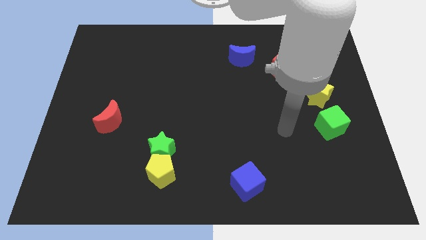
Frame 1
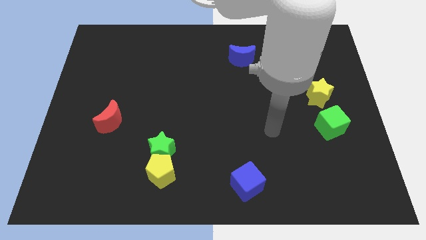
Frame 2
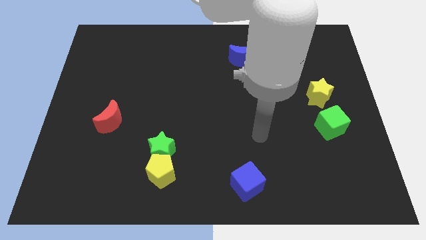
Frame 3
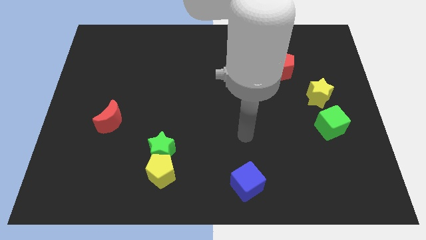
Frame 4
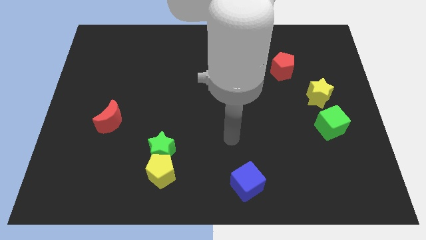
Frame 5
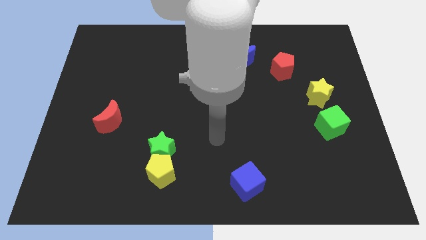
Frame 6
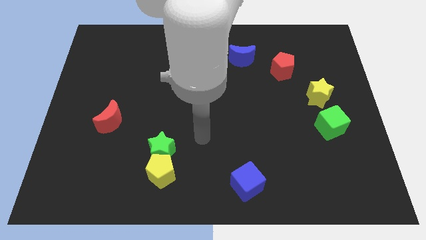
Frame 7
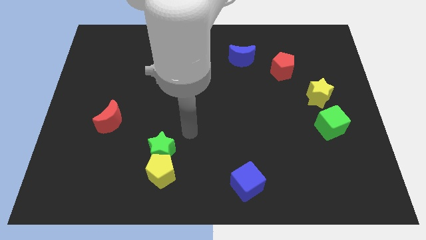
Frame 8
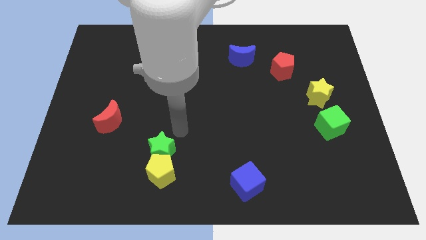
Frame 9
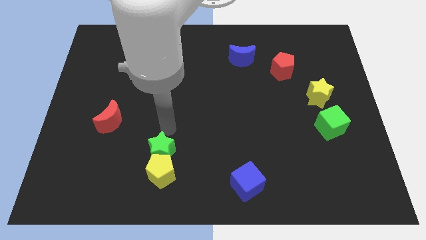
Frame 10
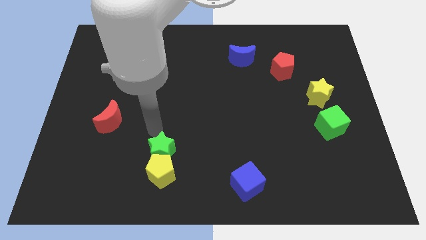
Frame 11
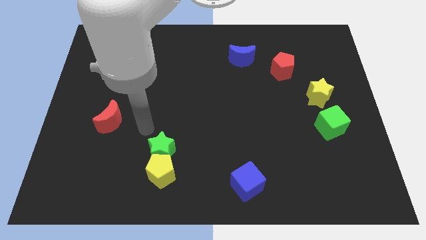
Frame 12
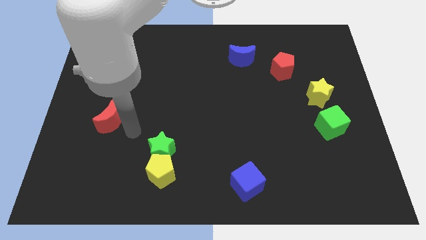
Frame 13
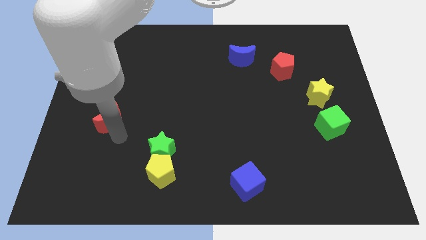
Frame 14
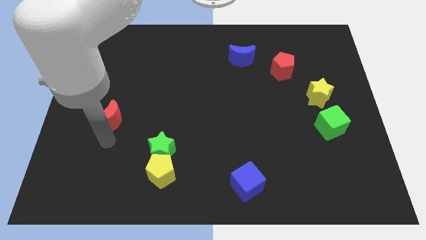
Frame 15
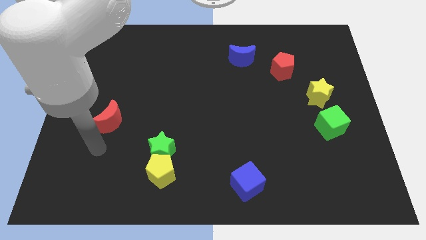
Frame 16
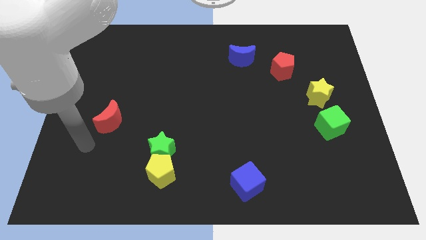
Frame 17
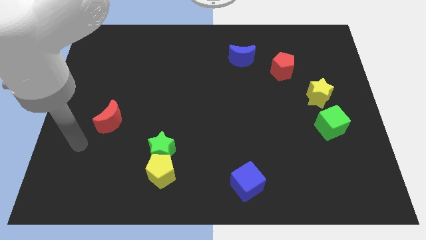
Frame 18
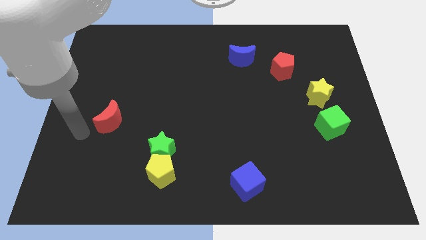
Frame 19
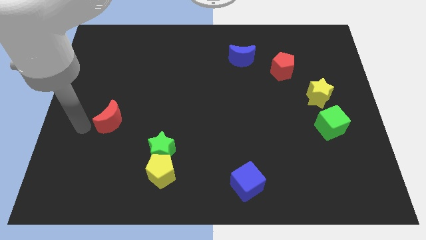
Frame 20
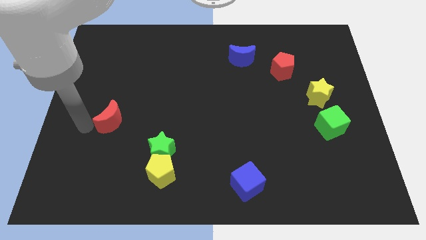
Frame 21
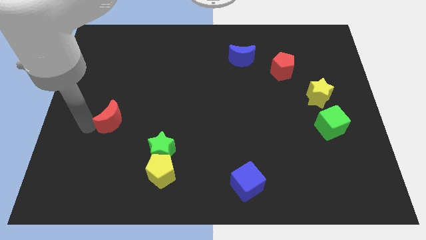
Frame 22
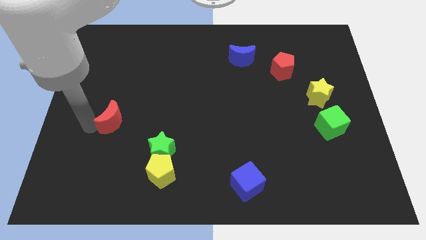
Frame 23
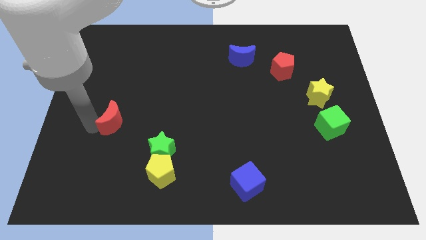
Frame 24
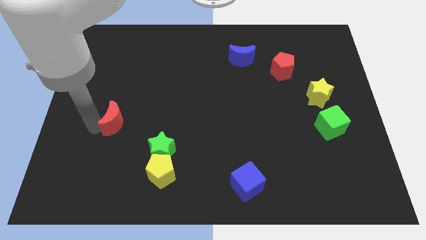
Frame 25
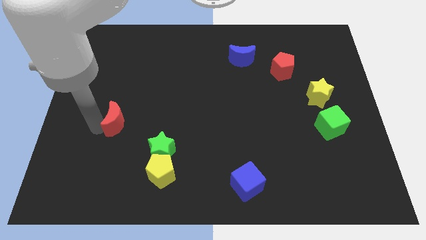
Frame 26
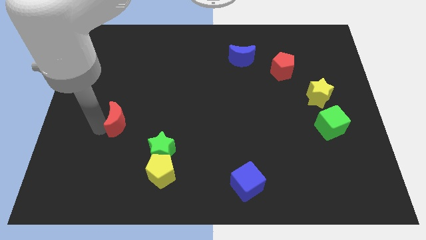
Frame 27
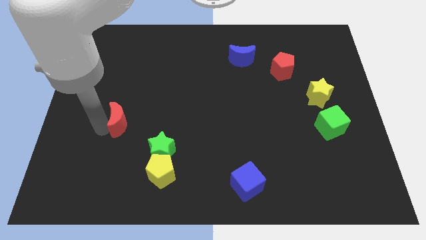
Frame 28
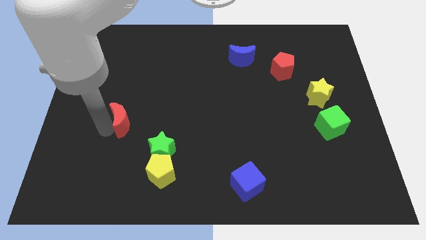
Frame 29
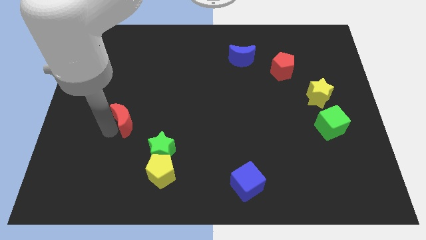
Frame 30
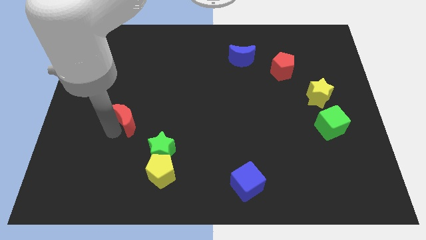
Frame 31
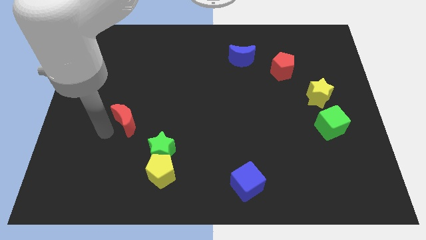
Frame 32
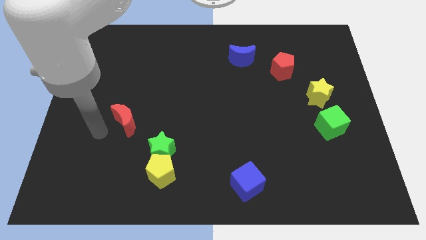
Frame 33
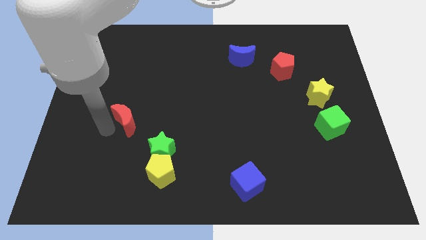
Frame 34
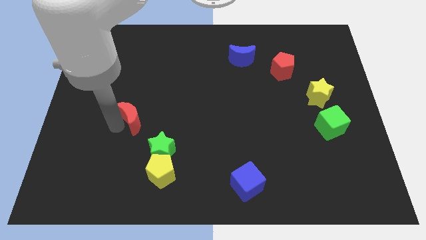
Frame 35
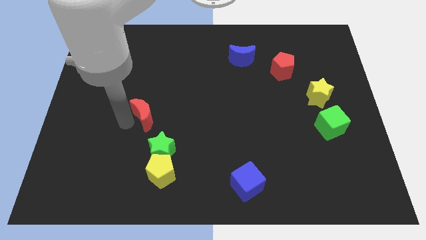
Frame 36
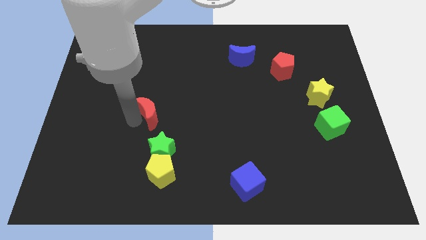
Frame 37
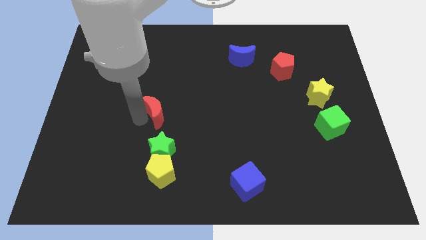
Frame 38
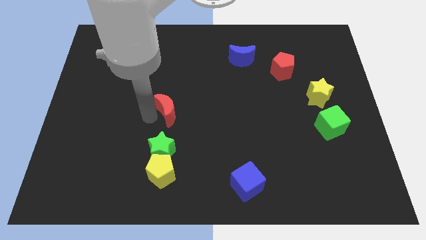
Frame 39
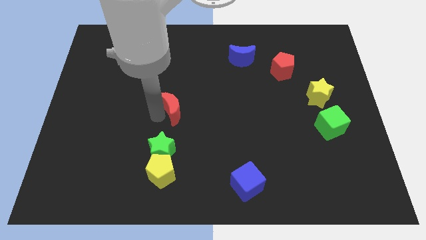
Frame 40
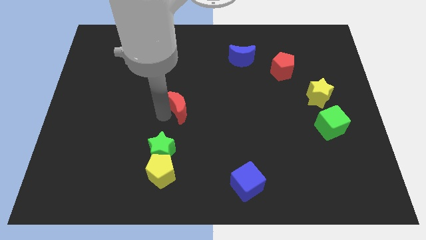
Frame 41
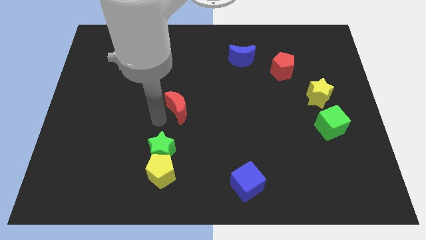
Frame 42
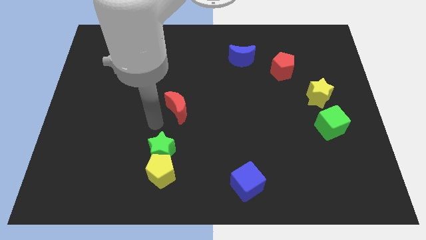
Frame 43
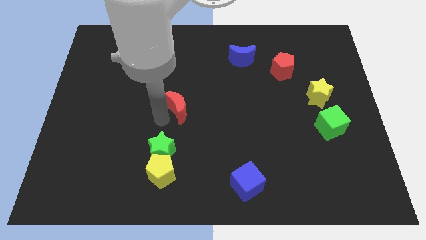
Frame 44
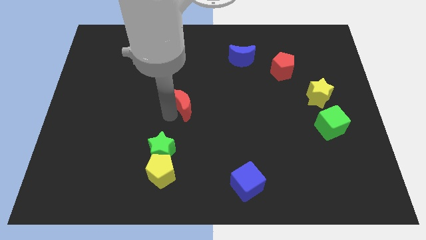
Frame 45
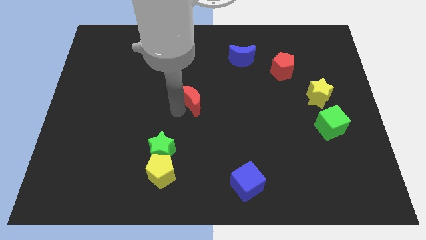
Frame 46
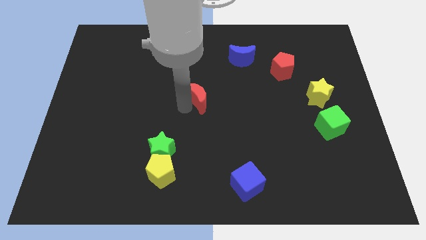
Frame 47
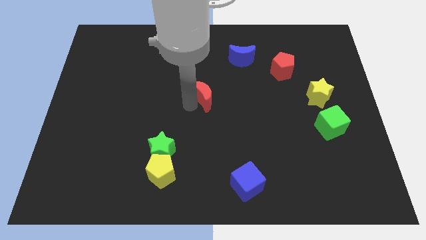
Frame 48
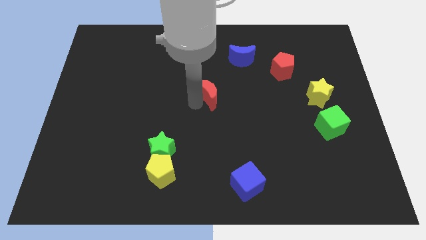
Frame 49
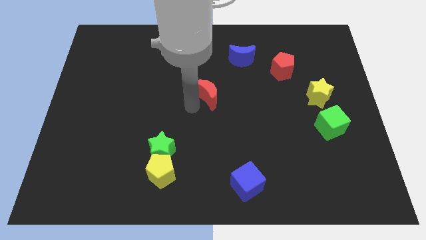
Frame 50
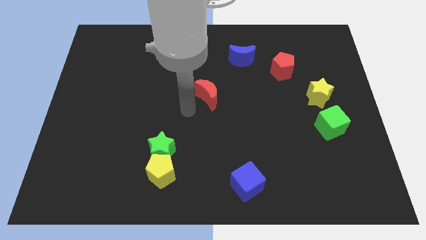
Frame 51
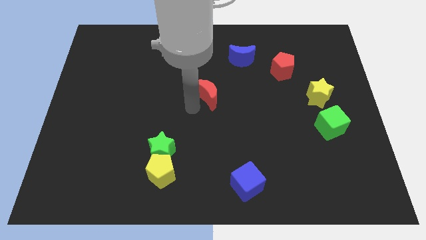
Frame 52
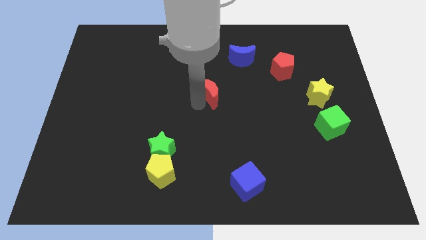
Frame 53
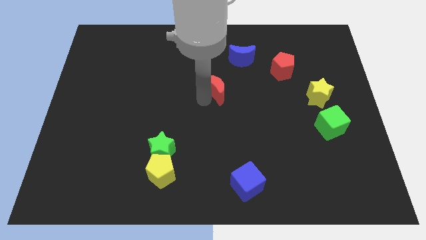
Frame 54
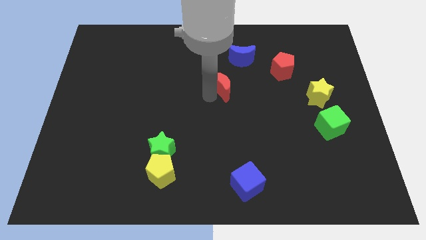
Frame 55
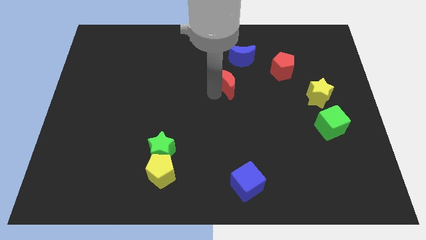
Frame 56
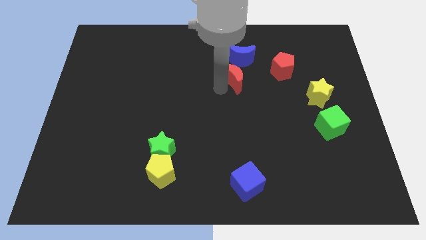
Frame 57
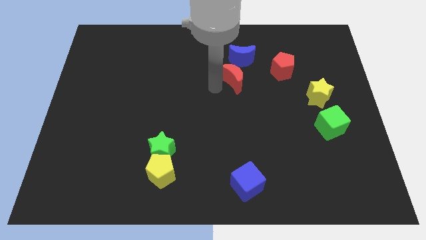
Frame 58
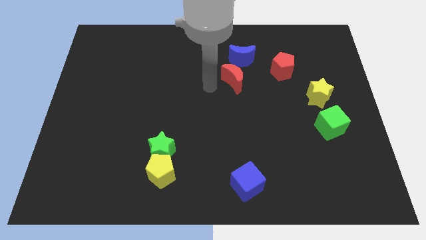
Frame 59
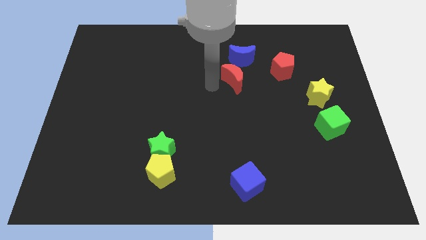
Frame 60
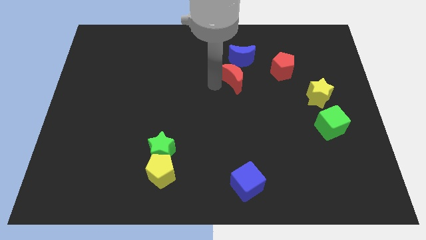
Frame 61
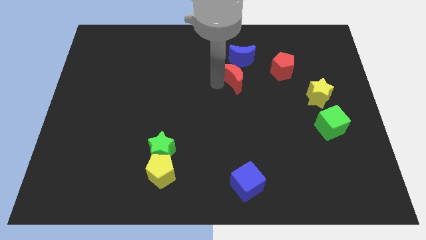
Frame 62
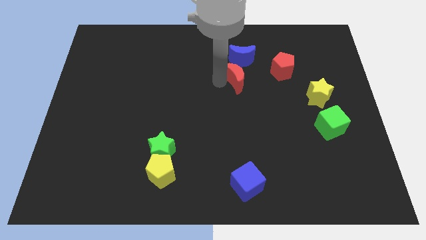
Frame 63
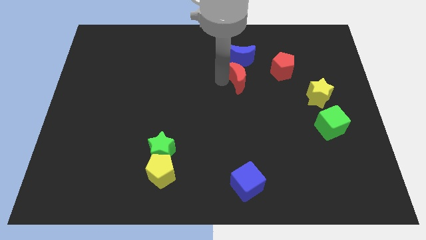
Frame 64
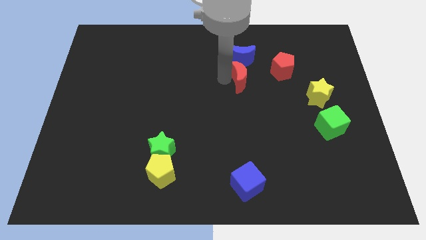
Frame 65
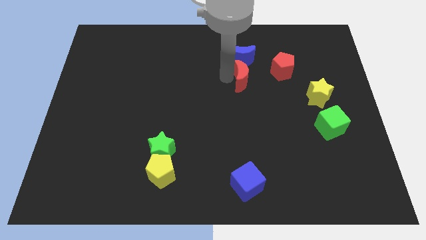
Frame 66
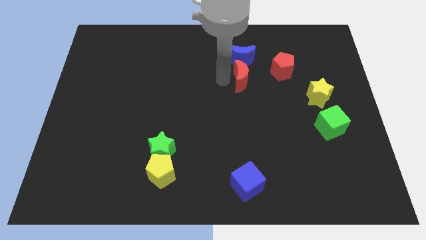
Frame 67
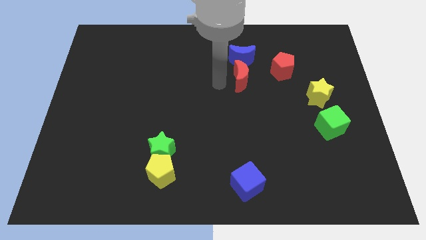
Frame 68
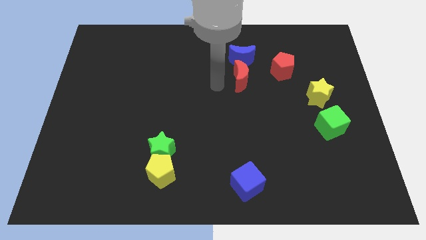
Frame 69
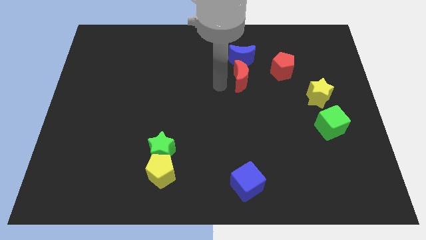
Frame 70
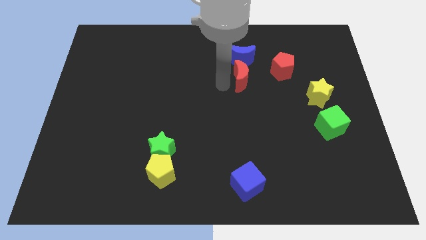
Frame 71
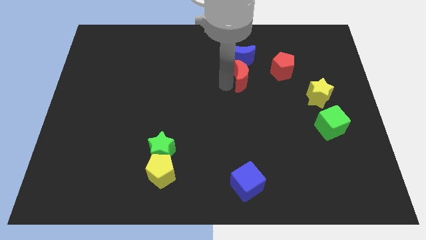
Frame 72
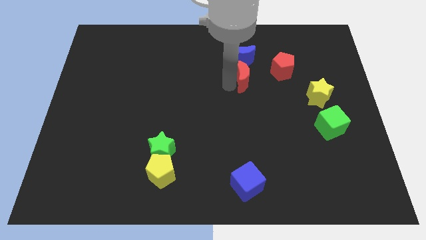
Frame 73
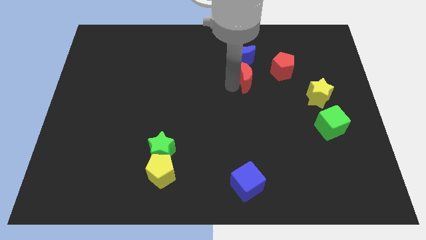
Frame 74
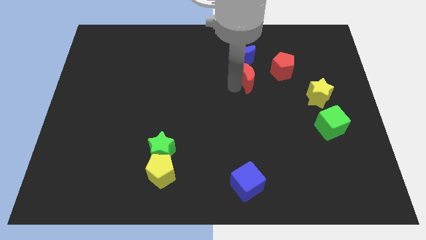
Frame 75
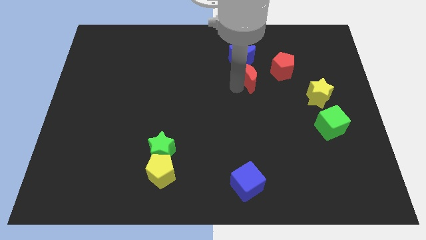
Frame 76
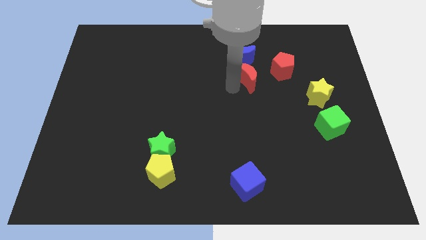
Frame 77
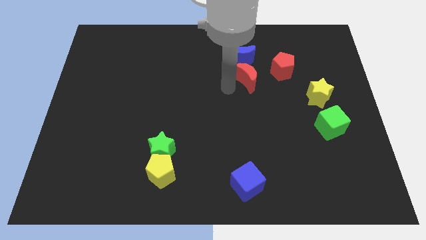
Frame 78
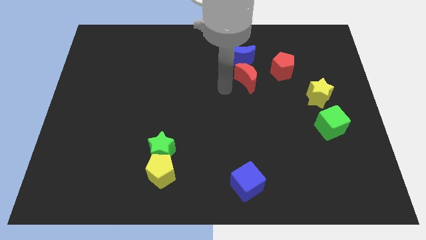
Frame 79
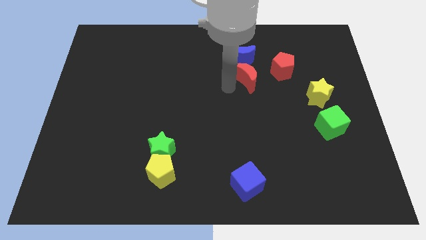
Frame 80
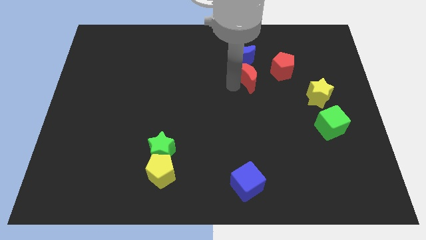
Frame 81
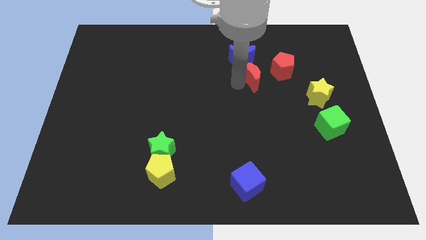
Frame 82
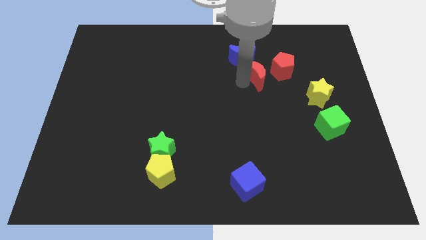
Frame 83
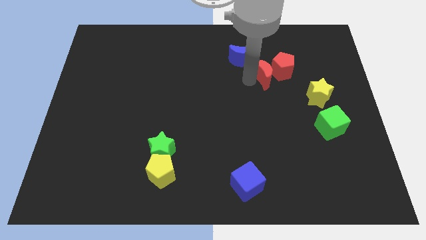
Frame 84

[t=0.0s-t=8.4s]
move the red moon next to the red pentagon
